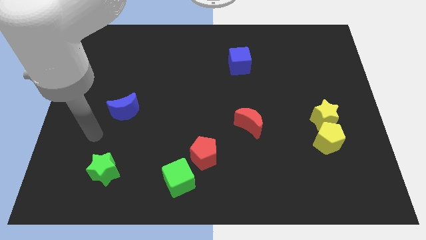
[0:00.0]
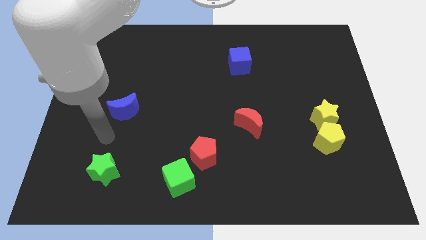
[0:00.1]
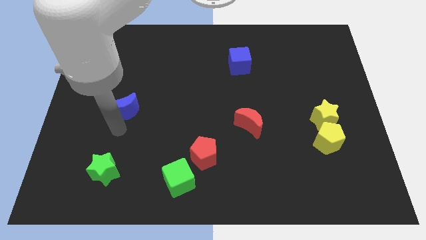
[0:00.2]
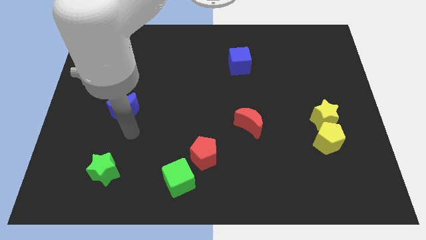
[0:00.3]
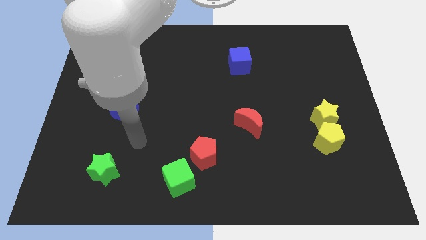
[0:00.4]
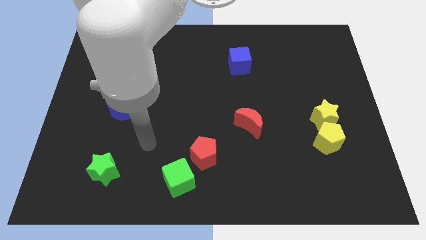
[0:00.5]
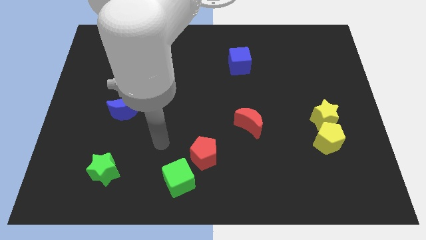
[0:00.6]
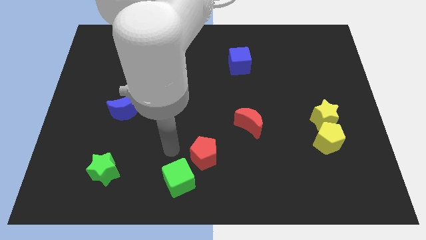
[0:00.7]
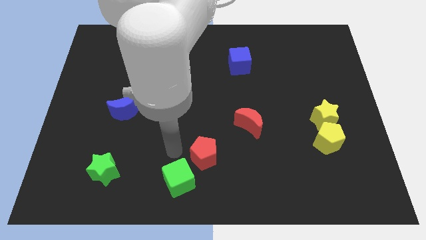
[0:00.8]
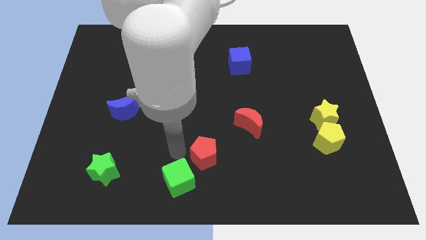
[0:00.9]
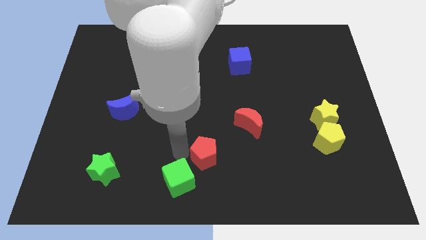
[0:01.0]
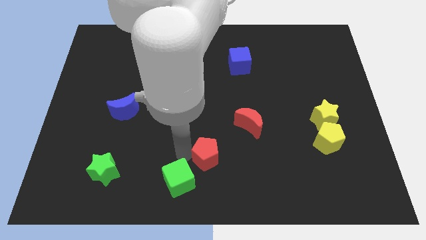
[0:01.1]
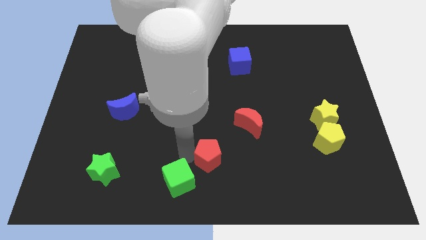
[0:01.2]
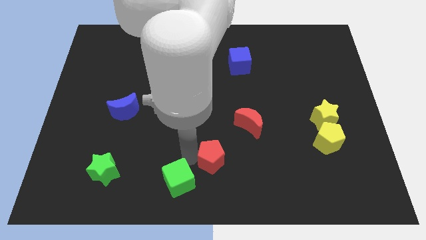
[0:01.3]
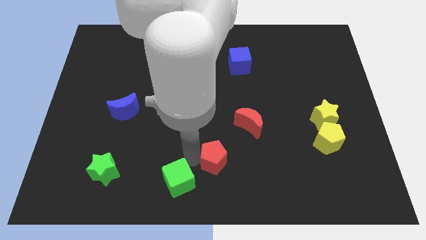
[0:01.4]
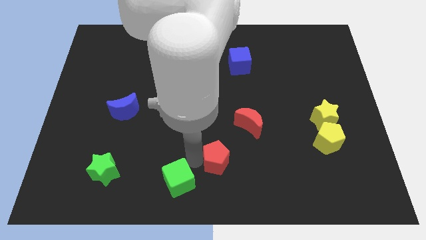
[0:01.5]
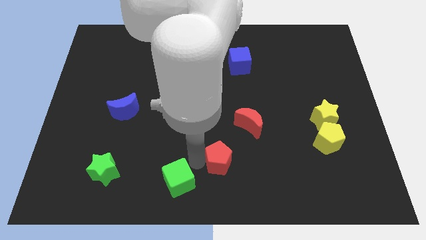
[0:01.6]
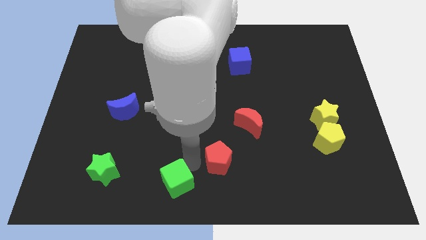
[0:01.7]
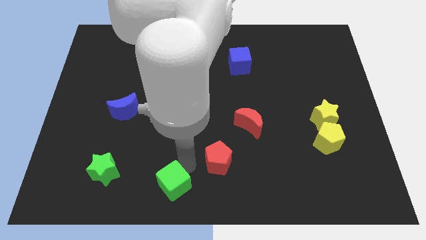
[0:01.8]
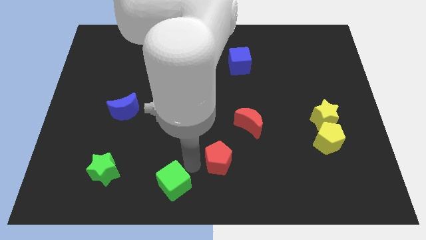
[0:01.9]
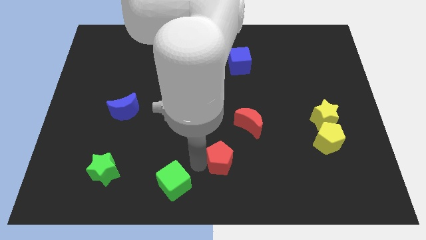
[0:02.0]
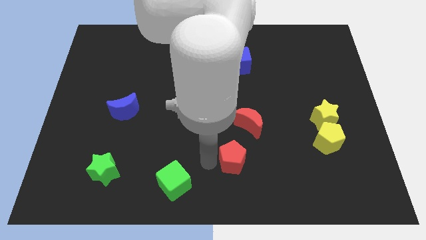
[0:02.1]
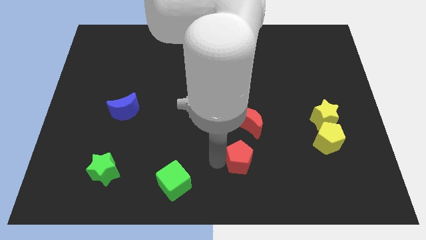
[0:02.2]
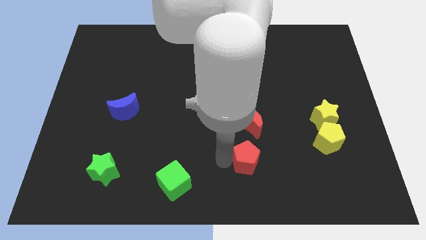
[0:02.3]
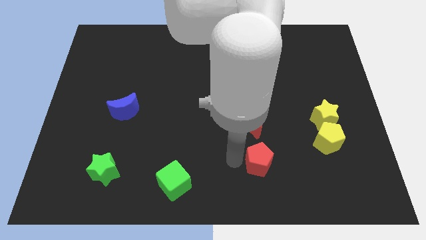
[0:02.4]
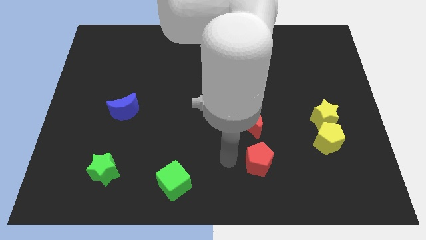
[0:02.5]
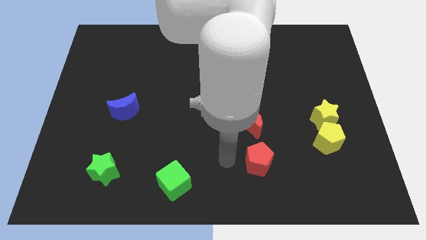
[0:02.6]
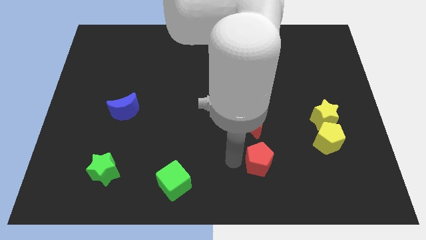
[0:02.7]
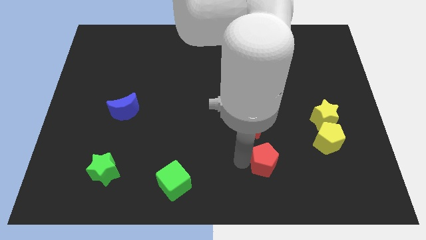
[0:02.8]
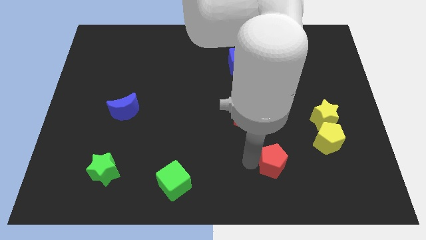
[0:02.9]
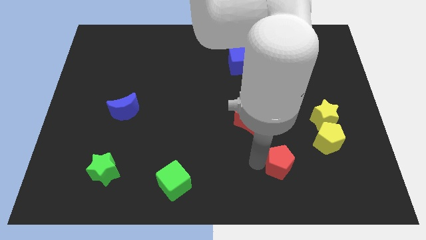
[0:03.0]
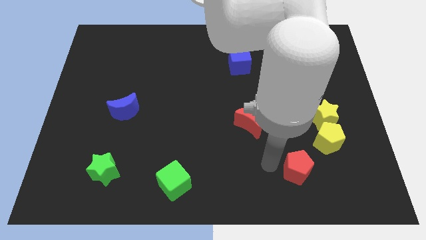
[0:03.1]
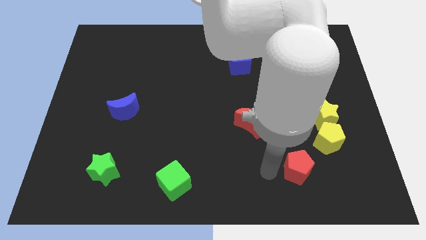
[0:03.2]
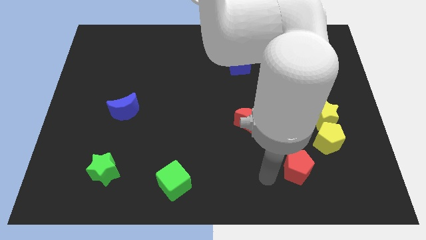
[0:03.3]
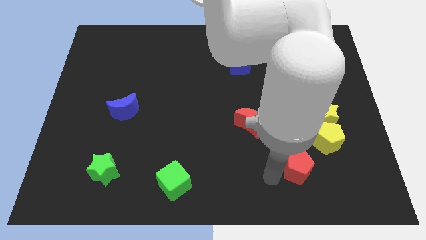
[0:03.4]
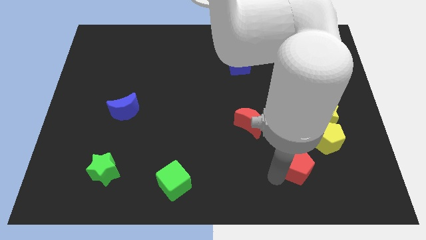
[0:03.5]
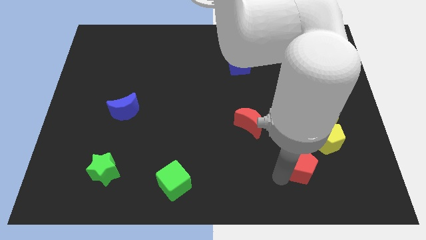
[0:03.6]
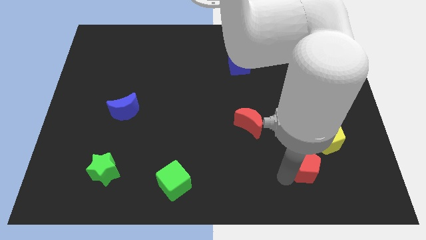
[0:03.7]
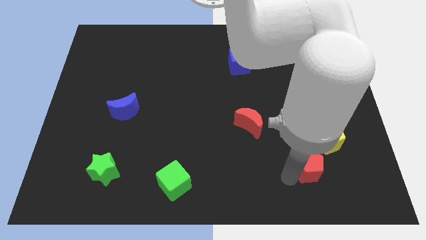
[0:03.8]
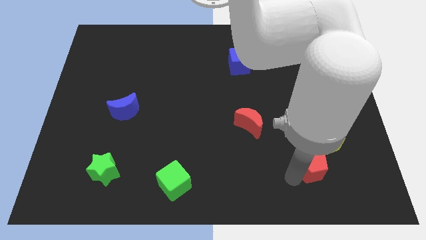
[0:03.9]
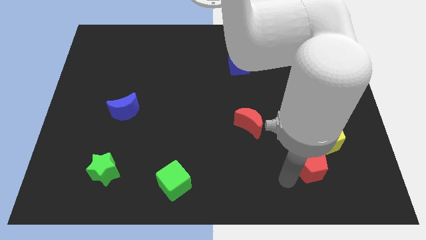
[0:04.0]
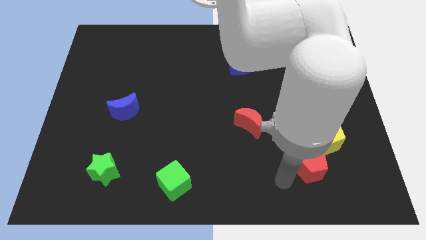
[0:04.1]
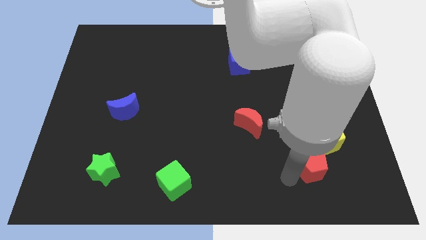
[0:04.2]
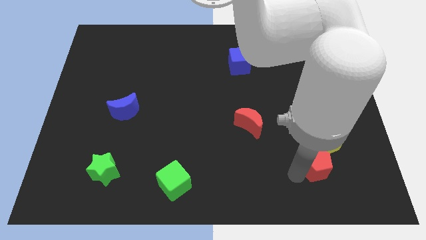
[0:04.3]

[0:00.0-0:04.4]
slide the red pentagon below the yellow star

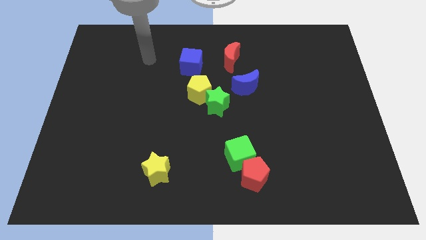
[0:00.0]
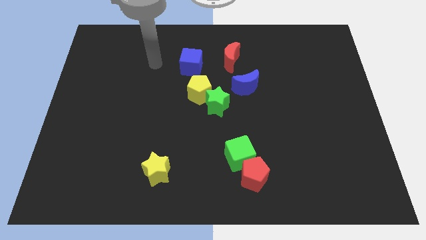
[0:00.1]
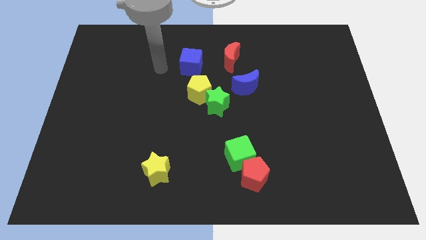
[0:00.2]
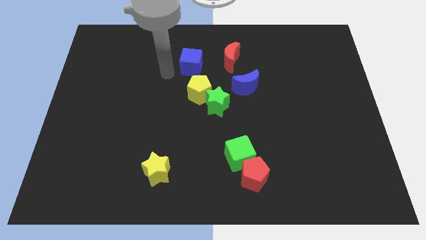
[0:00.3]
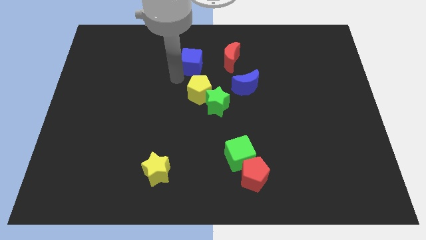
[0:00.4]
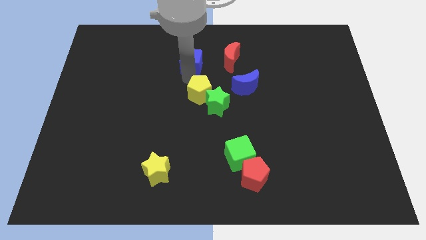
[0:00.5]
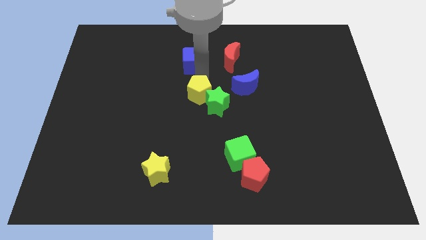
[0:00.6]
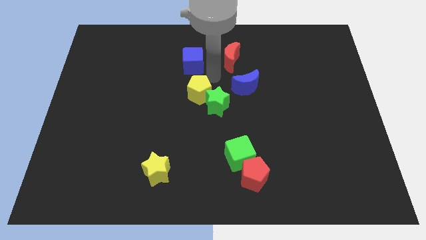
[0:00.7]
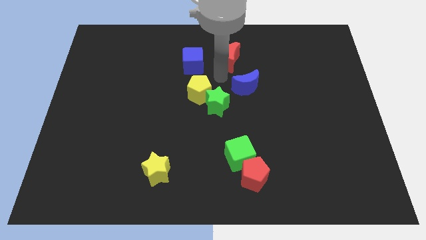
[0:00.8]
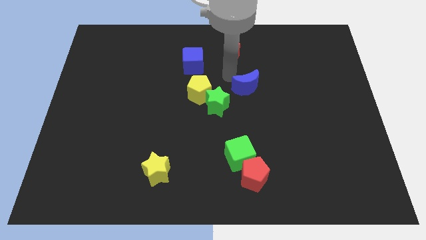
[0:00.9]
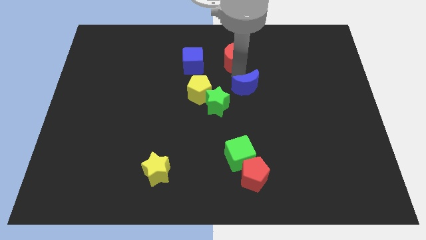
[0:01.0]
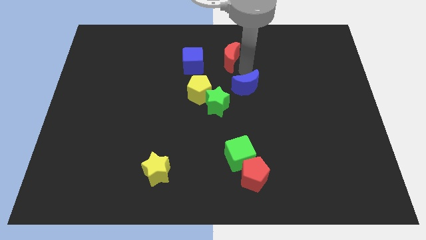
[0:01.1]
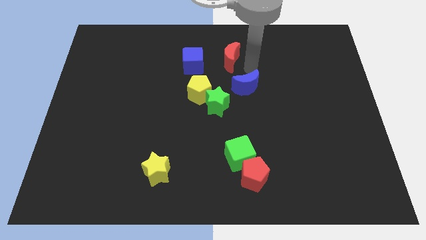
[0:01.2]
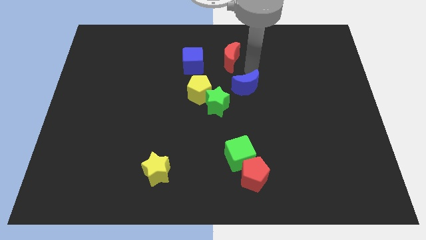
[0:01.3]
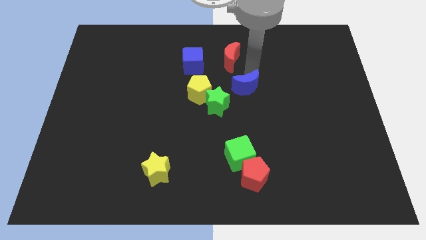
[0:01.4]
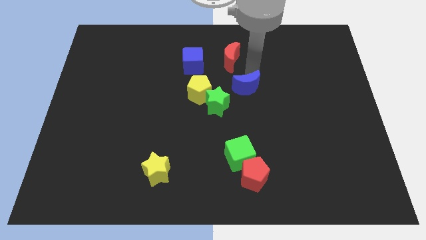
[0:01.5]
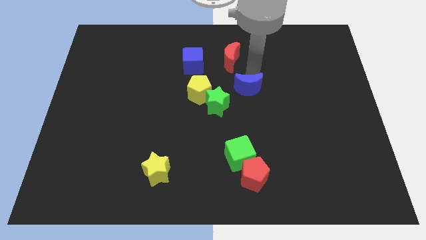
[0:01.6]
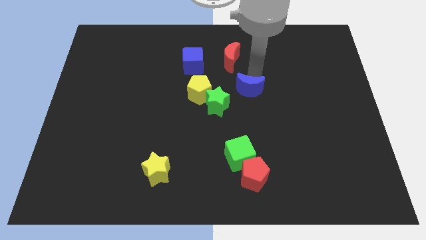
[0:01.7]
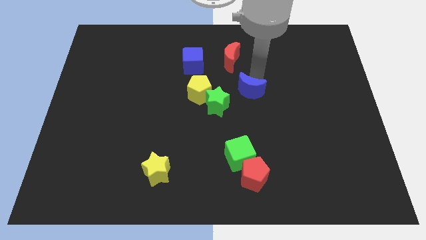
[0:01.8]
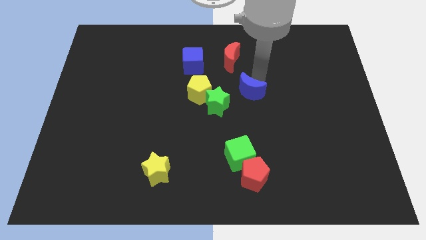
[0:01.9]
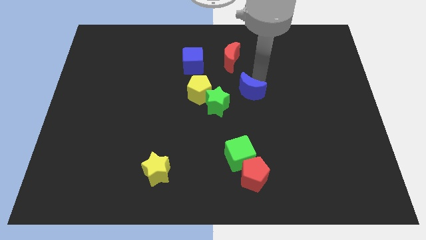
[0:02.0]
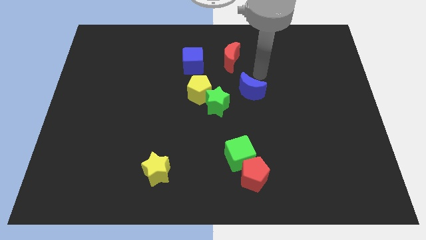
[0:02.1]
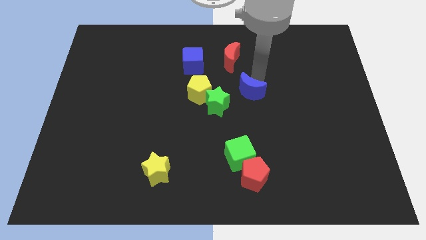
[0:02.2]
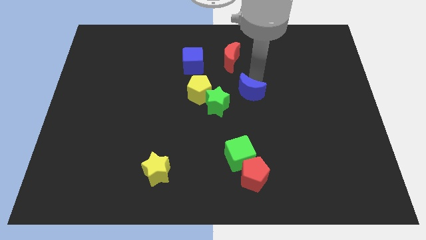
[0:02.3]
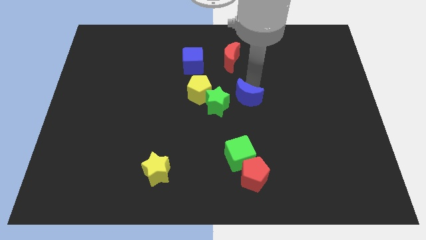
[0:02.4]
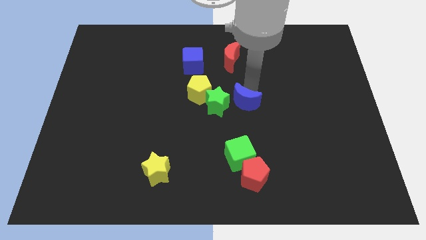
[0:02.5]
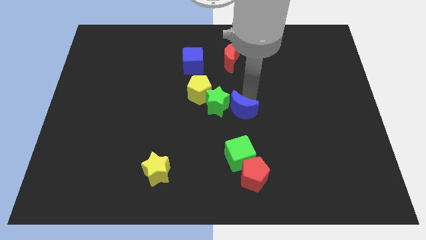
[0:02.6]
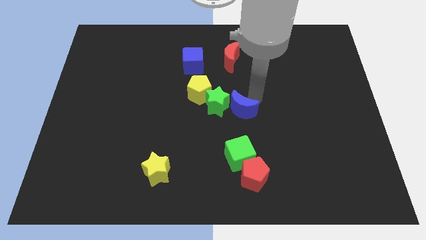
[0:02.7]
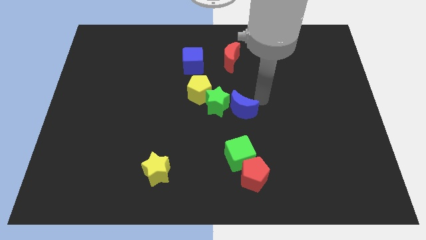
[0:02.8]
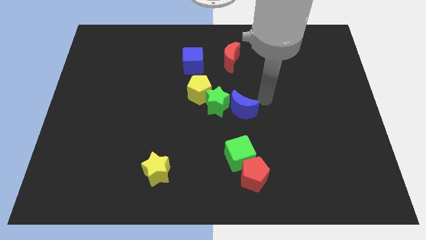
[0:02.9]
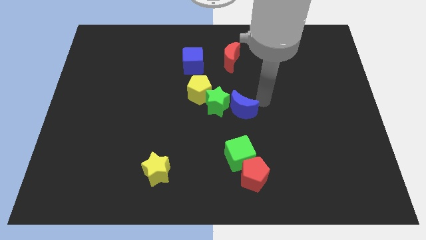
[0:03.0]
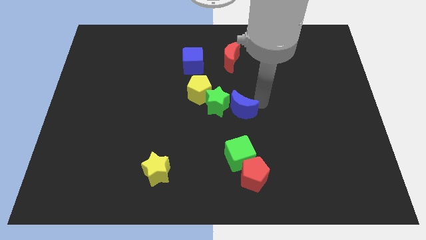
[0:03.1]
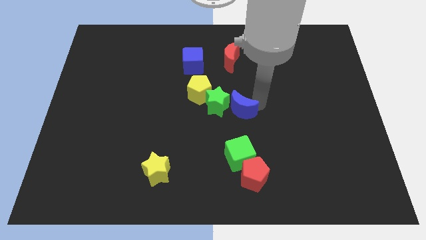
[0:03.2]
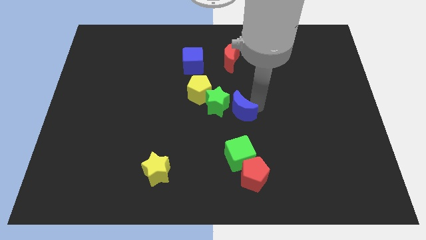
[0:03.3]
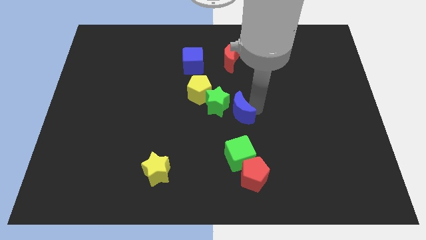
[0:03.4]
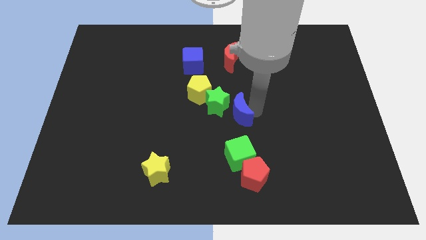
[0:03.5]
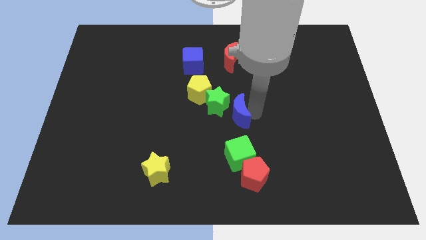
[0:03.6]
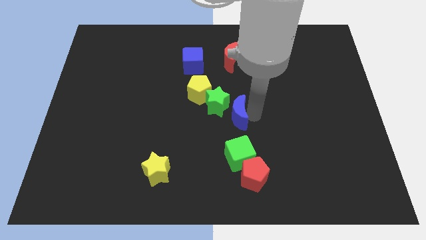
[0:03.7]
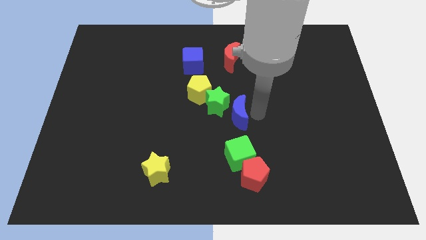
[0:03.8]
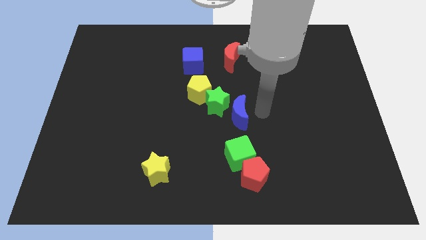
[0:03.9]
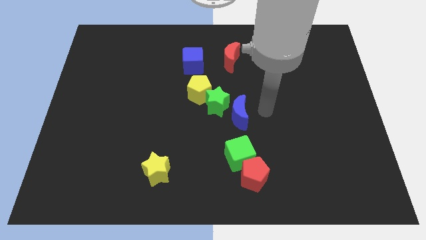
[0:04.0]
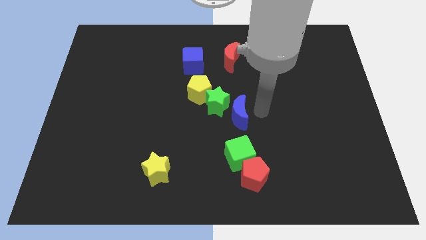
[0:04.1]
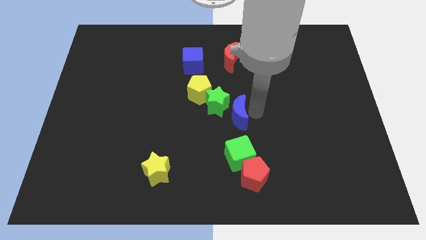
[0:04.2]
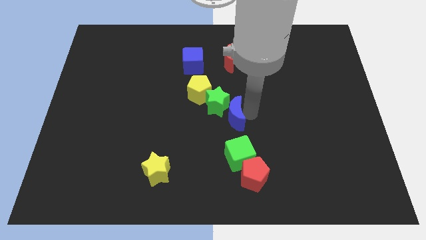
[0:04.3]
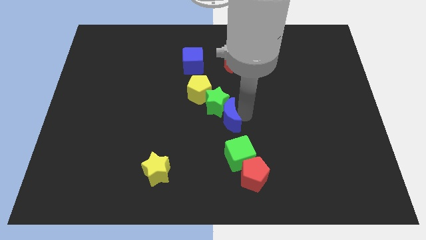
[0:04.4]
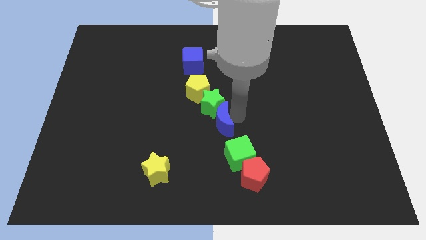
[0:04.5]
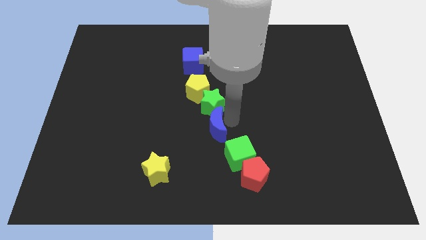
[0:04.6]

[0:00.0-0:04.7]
move the blue moon to the bottom side of the yellow pentagon
